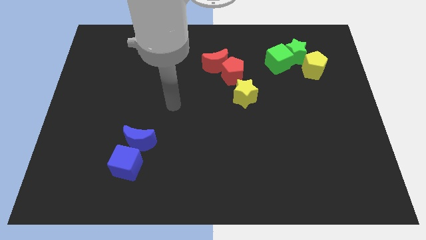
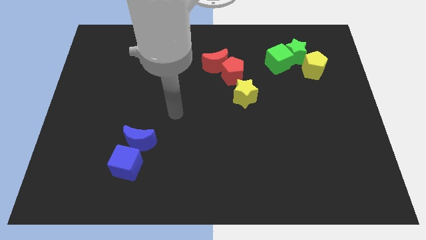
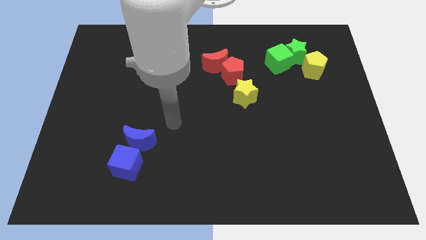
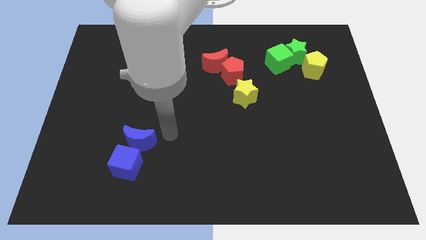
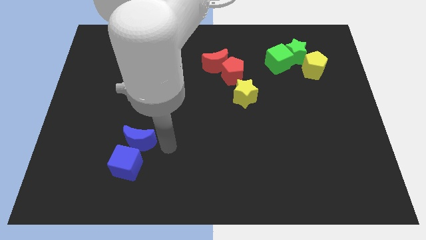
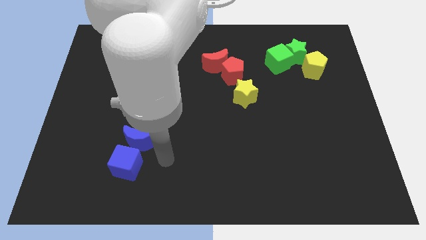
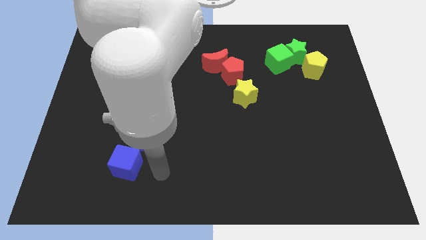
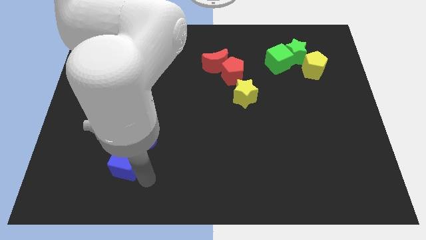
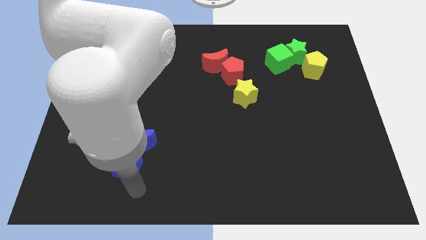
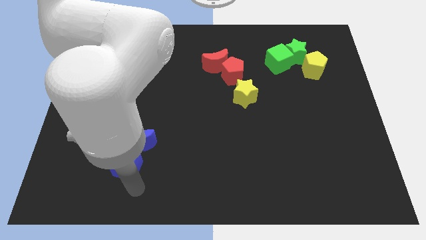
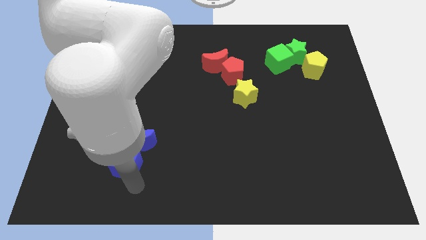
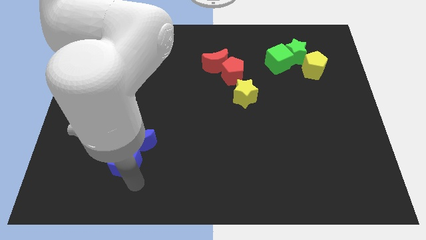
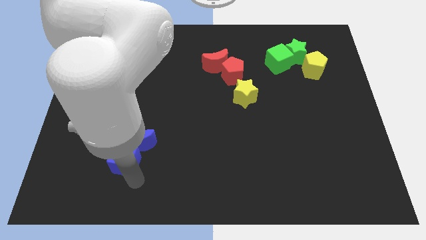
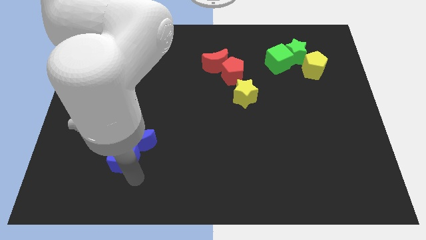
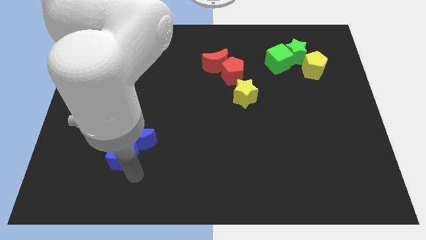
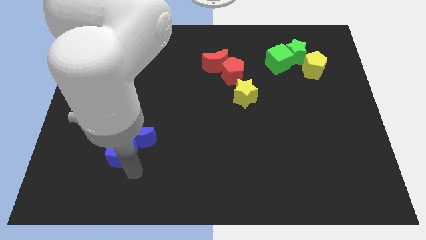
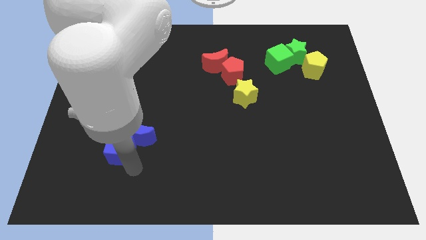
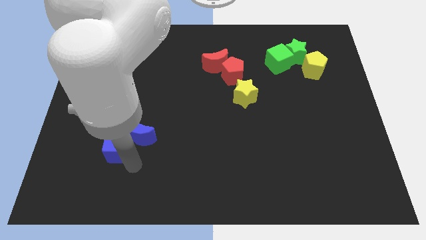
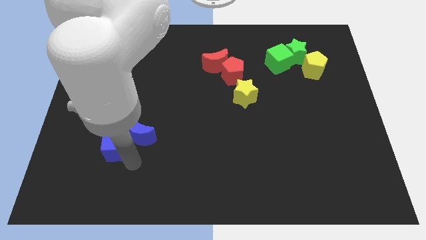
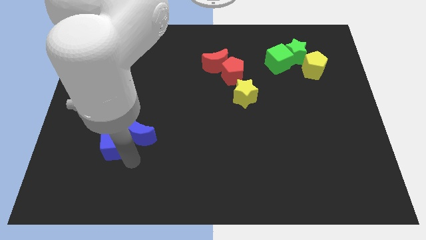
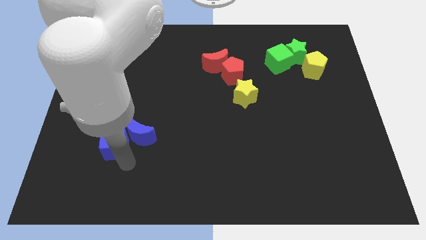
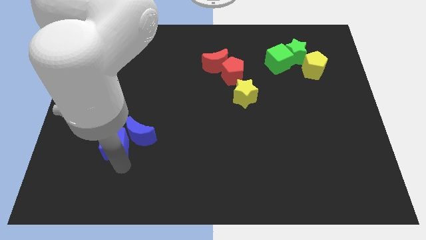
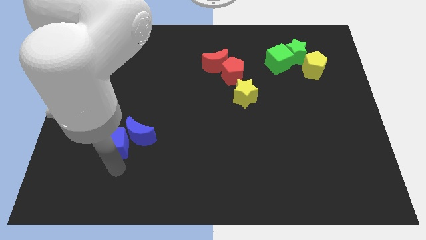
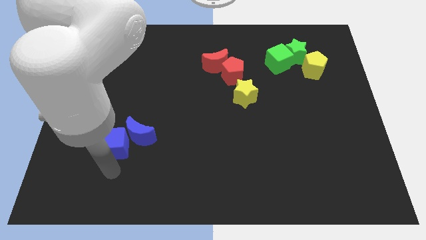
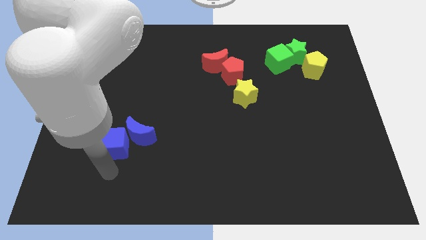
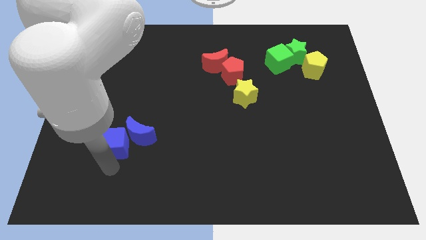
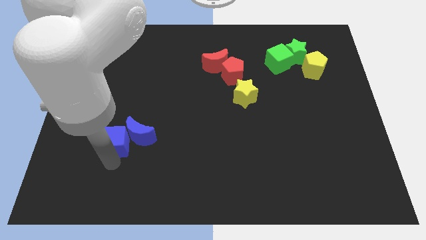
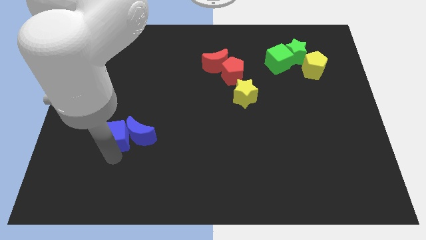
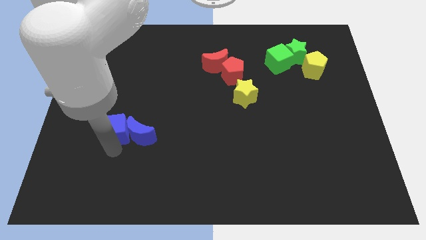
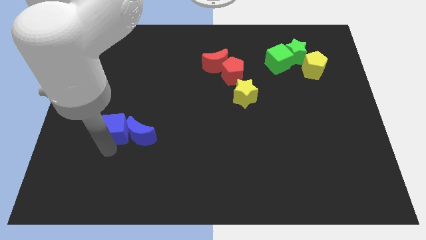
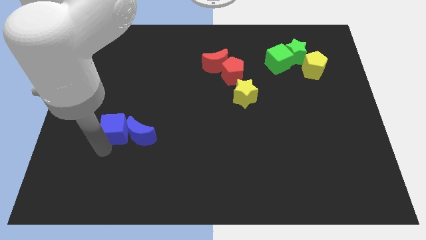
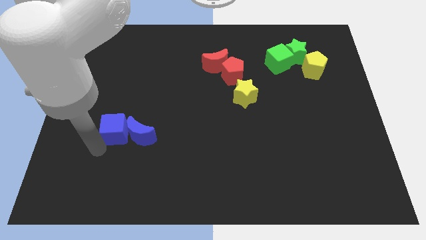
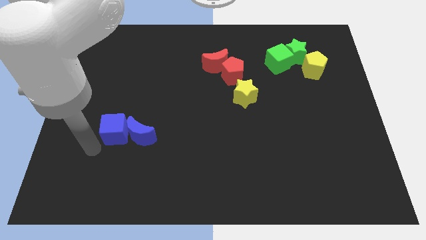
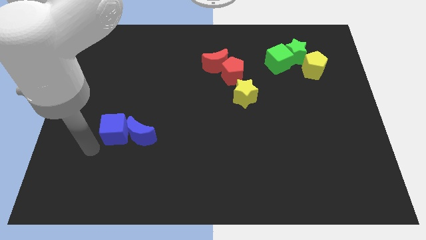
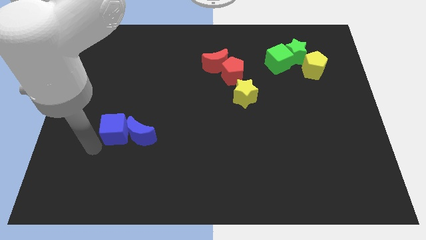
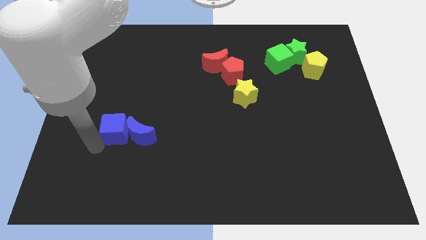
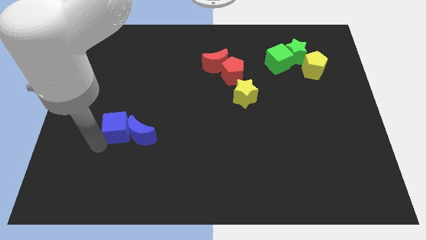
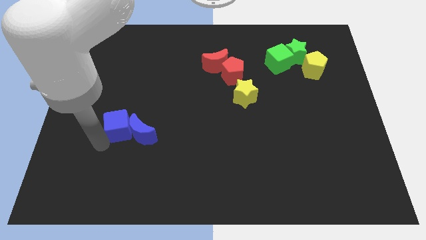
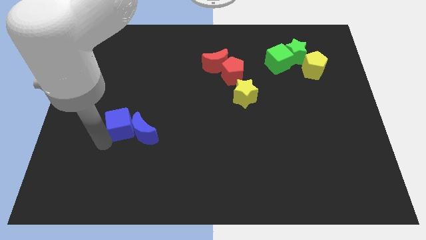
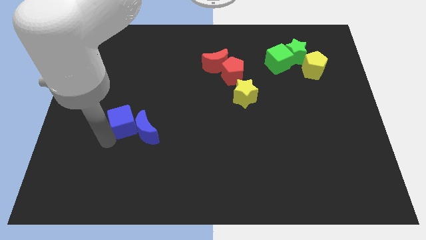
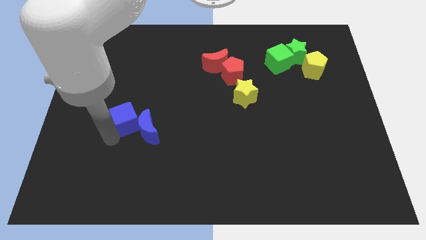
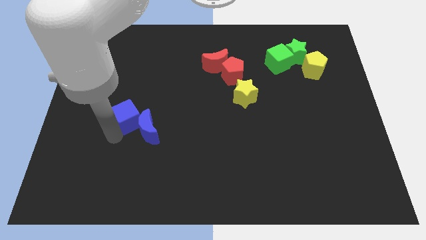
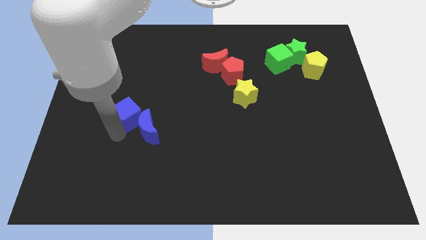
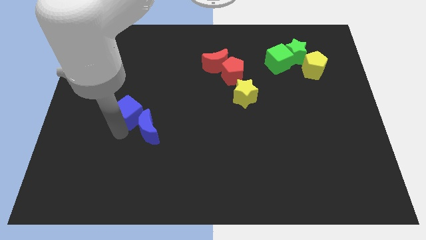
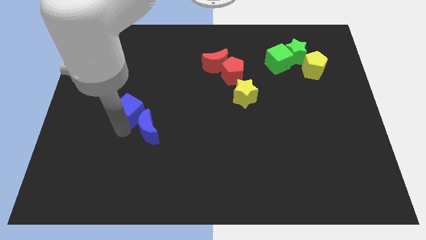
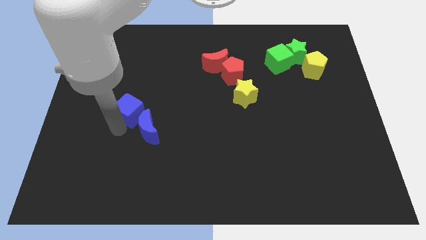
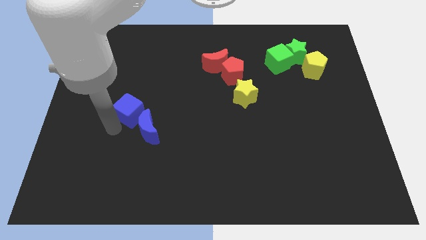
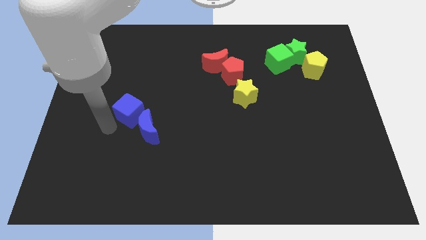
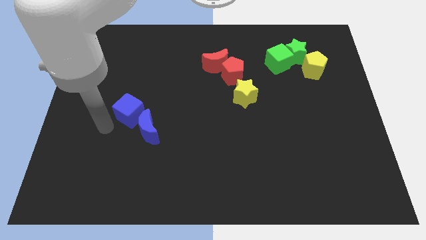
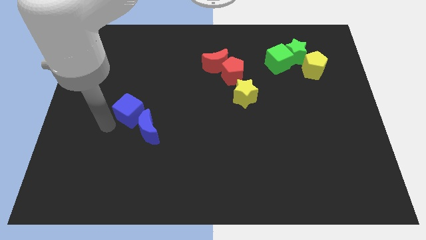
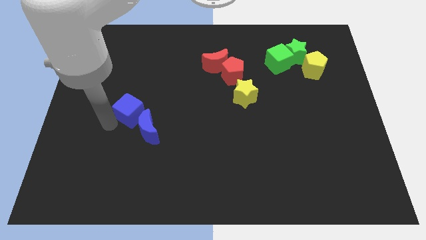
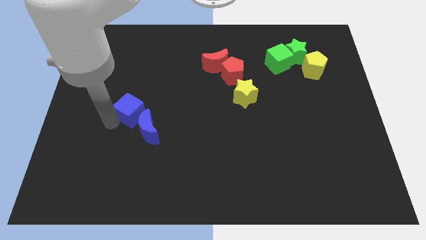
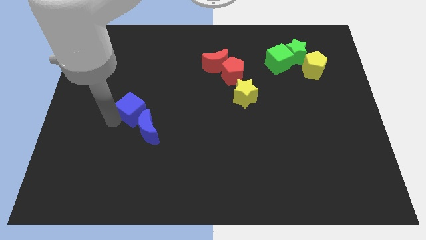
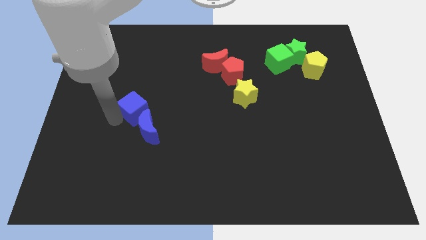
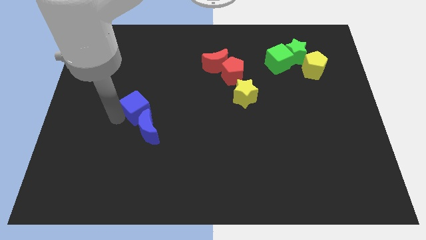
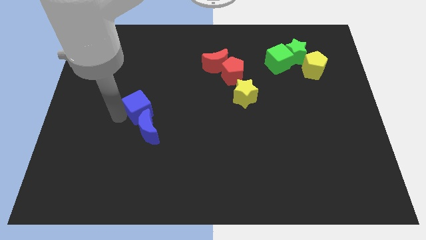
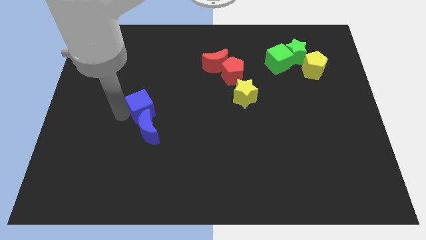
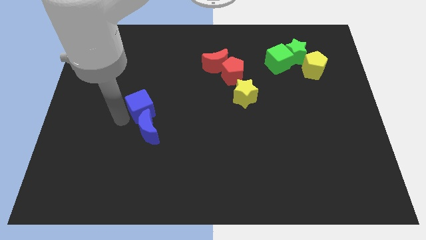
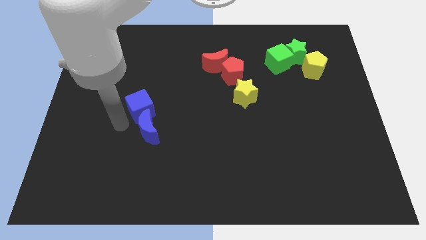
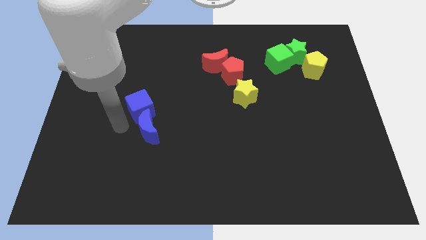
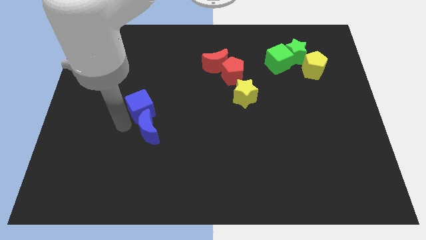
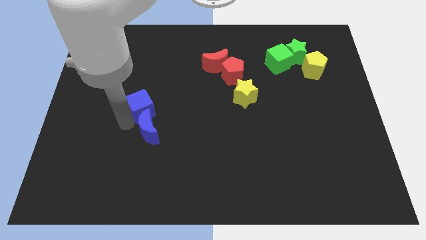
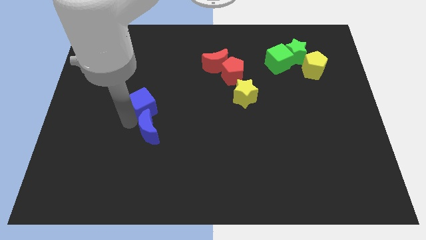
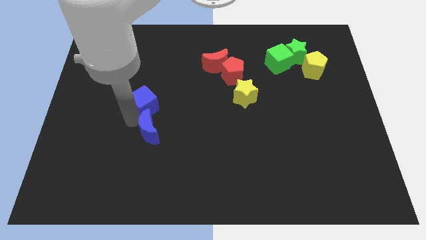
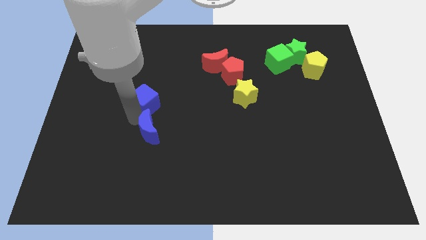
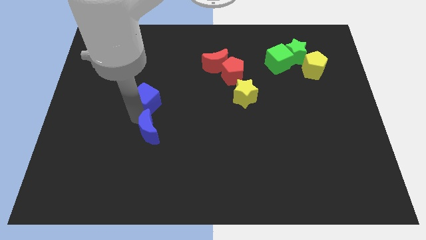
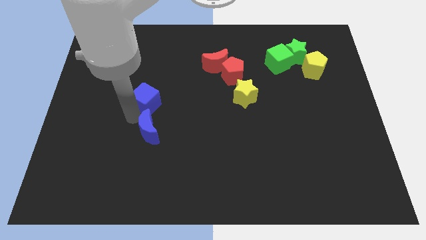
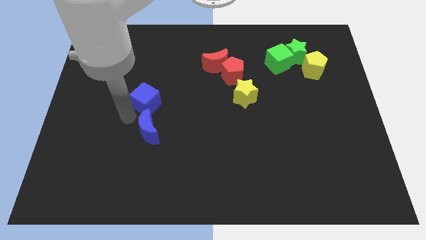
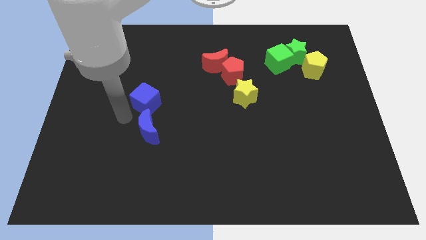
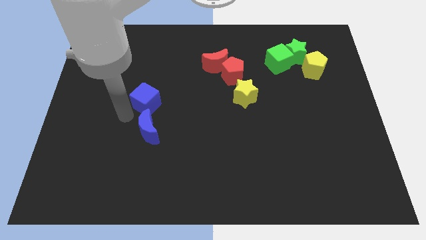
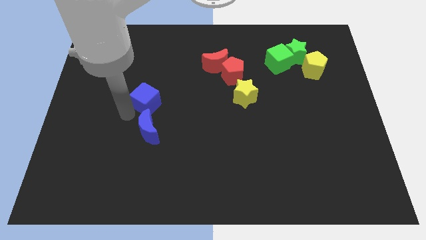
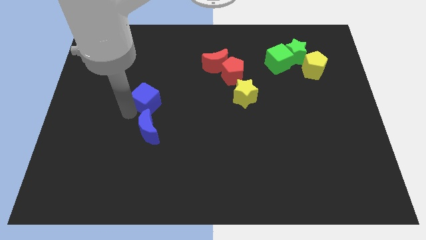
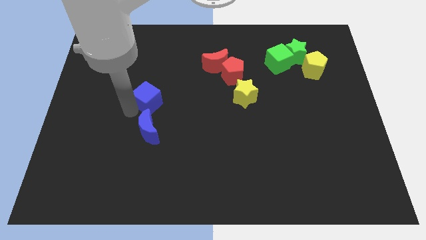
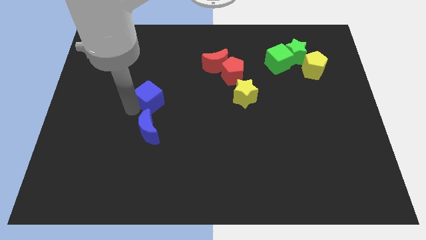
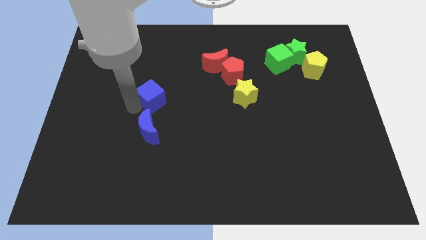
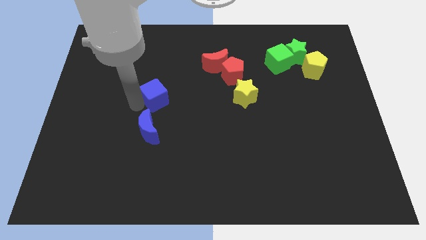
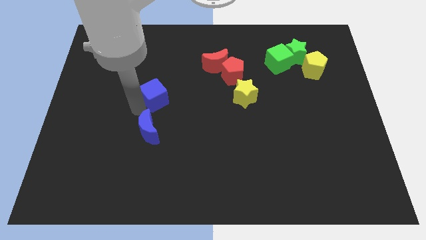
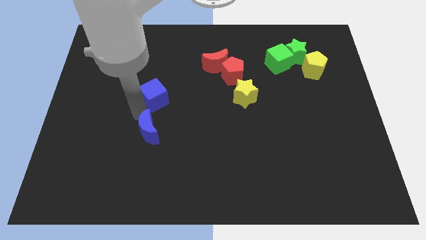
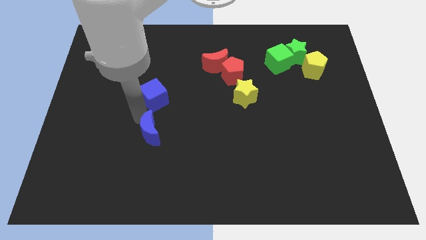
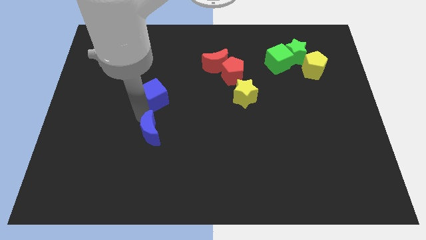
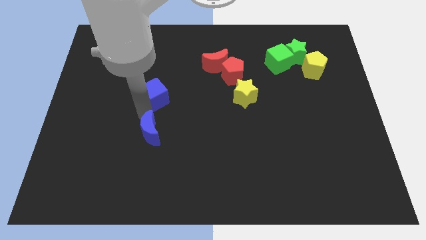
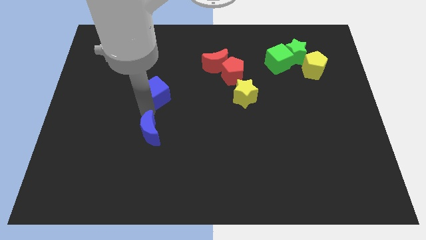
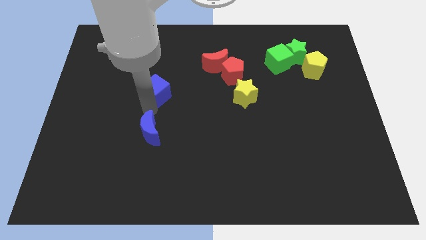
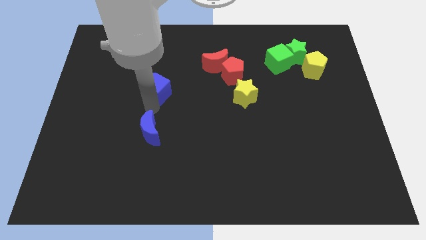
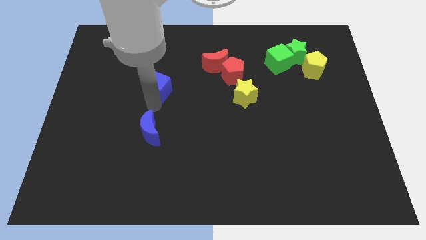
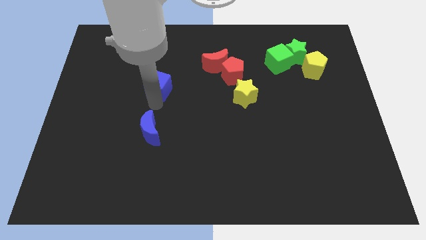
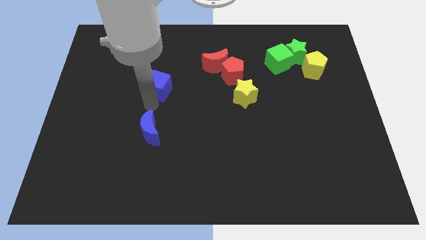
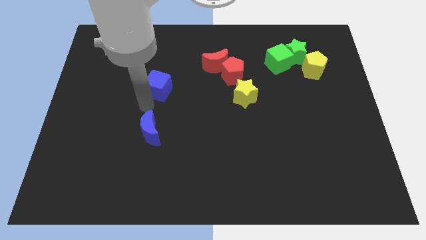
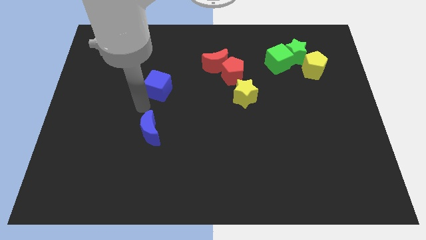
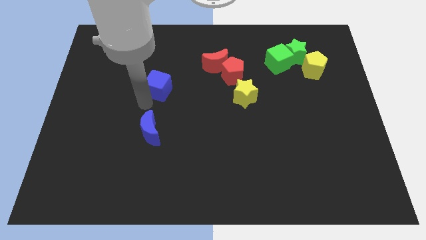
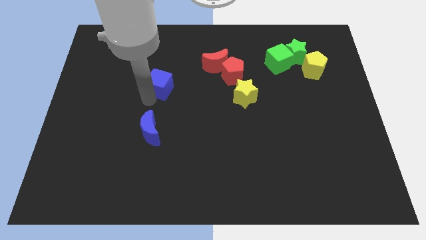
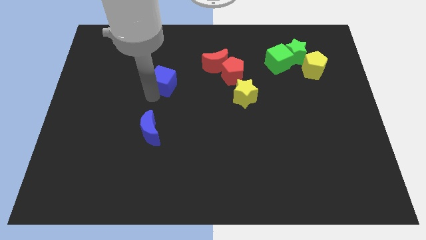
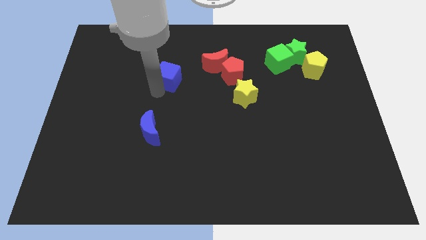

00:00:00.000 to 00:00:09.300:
put the blue cube to the left side of the red moon
